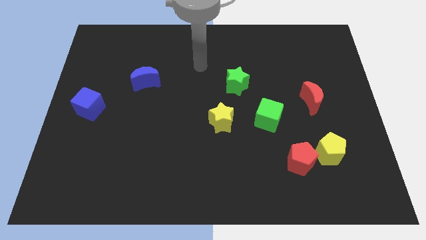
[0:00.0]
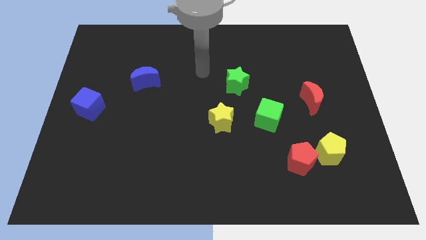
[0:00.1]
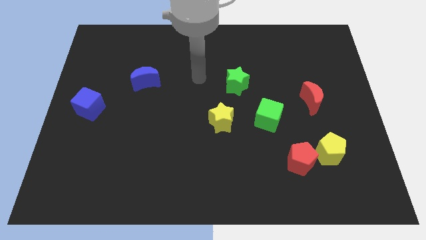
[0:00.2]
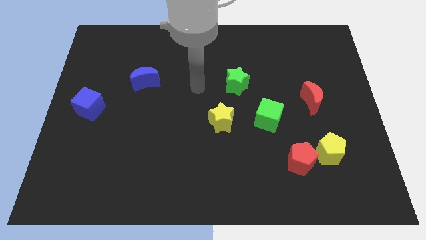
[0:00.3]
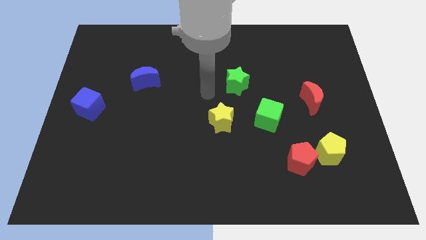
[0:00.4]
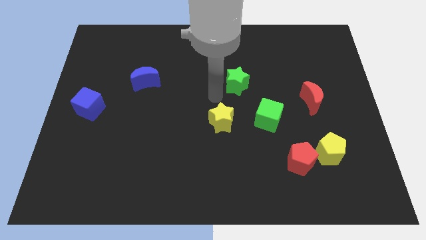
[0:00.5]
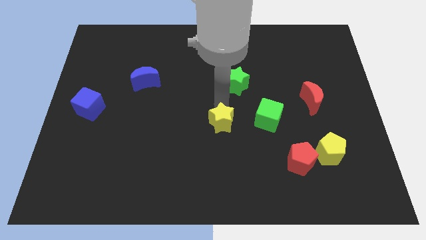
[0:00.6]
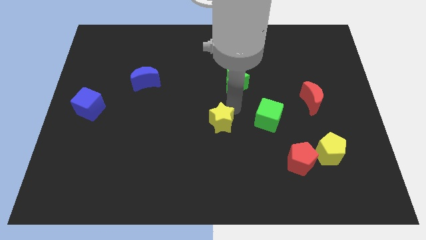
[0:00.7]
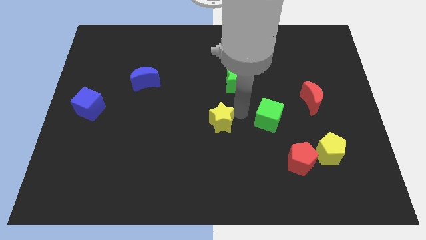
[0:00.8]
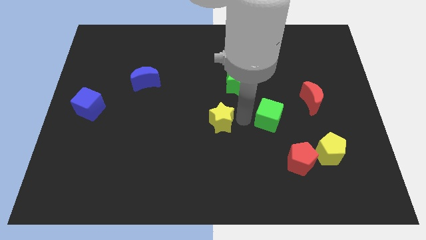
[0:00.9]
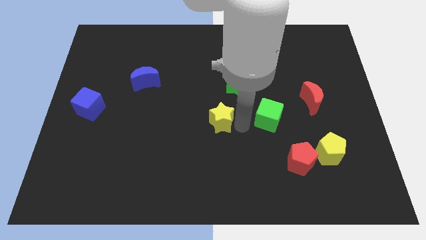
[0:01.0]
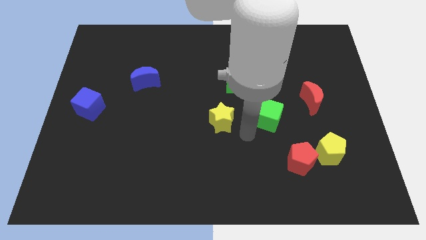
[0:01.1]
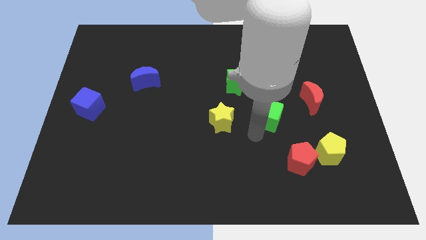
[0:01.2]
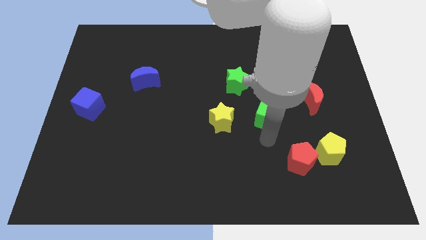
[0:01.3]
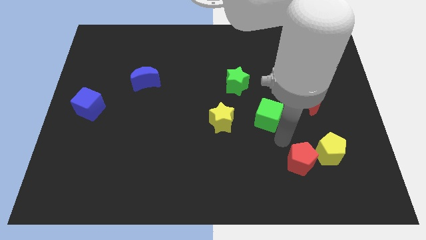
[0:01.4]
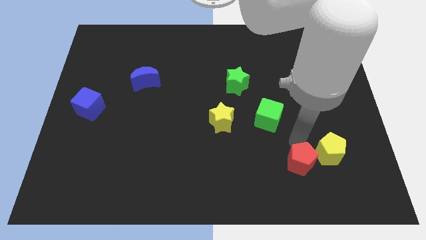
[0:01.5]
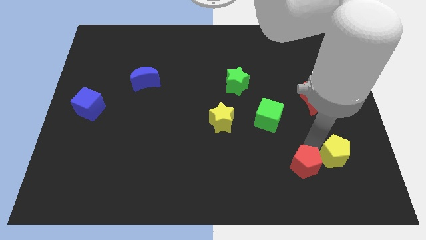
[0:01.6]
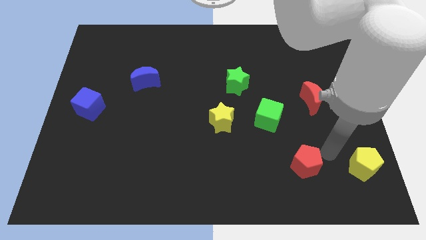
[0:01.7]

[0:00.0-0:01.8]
separate the red pentagon from the yellow pentagon

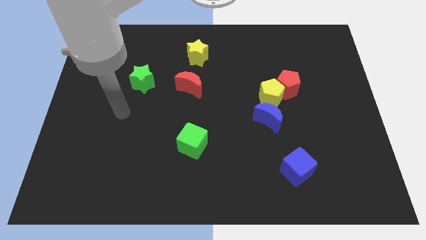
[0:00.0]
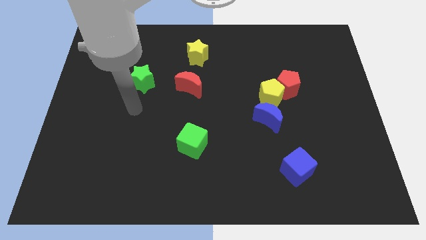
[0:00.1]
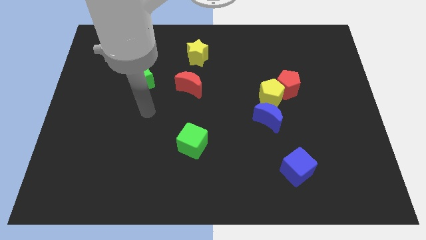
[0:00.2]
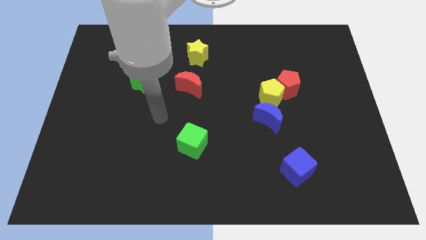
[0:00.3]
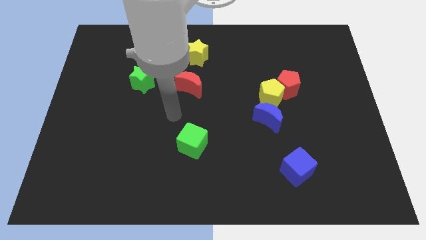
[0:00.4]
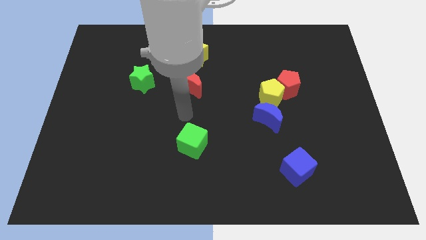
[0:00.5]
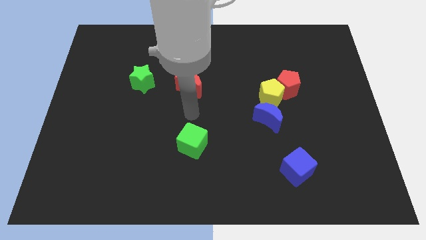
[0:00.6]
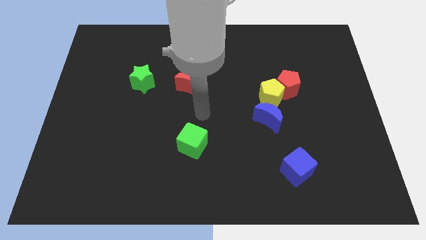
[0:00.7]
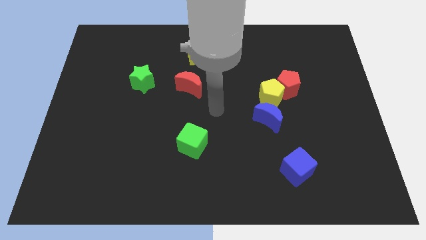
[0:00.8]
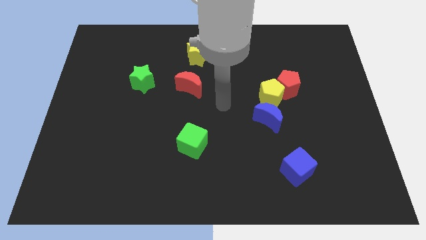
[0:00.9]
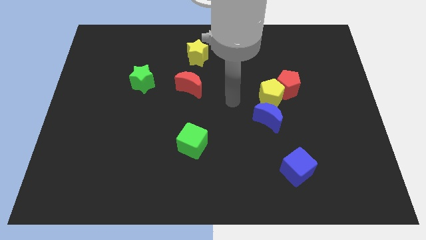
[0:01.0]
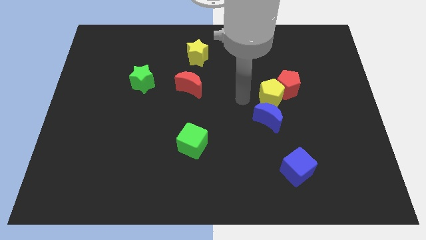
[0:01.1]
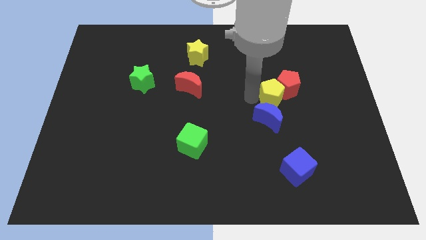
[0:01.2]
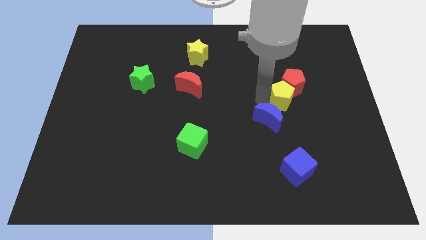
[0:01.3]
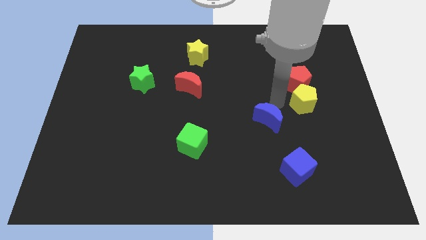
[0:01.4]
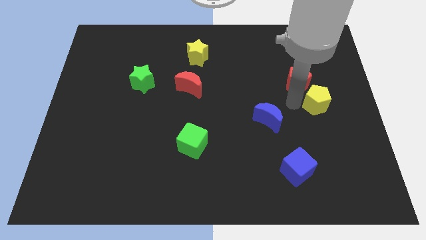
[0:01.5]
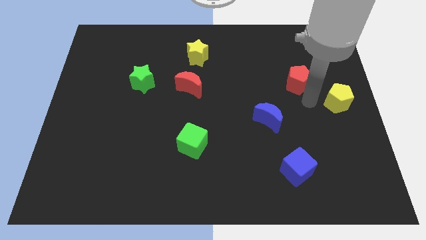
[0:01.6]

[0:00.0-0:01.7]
move the red pentagon away from the yellow pentagon

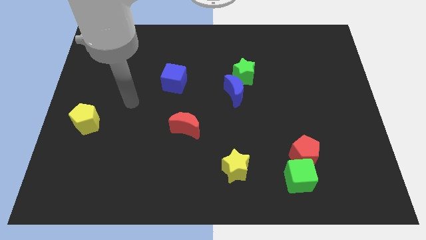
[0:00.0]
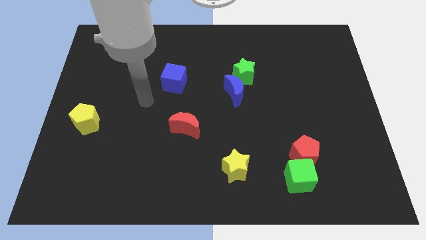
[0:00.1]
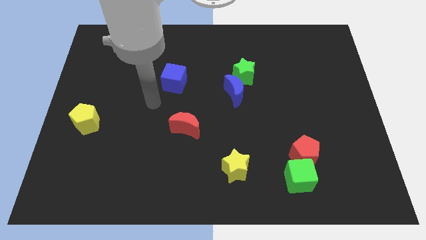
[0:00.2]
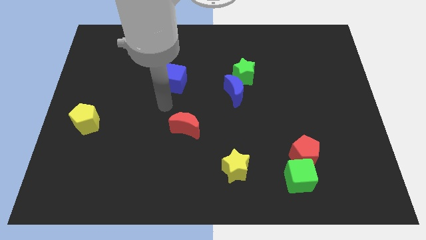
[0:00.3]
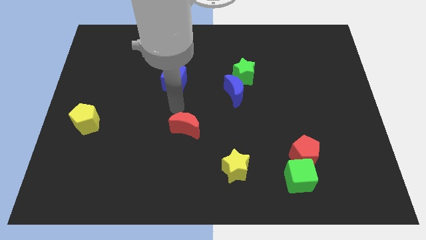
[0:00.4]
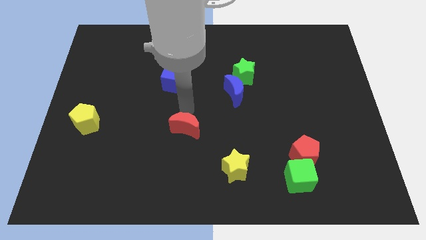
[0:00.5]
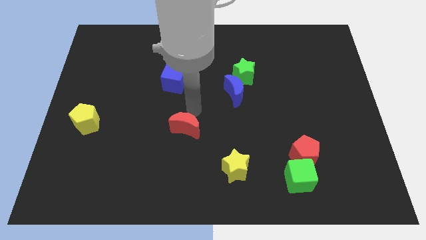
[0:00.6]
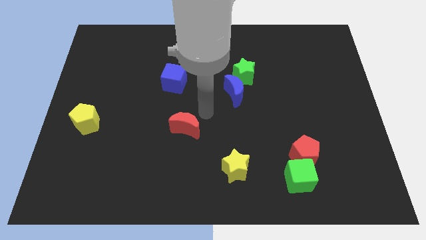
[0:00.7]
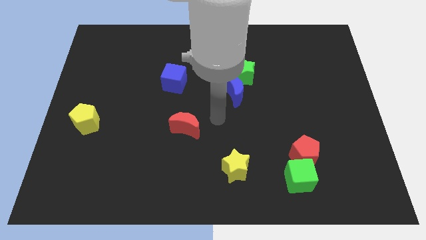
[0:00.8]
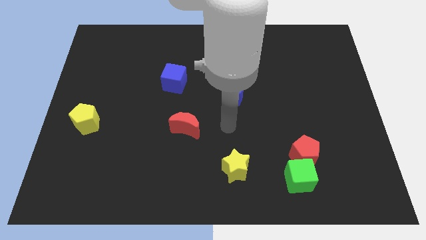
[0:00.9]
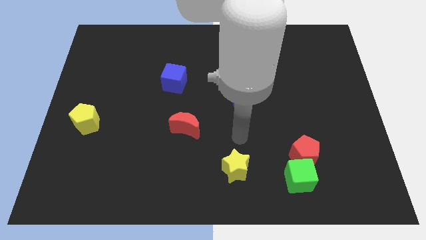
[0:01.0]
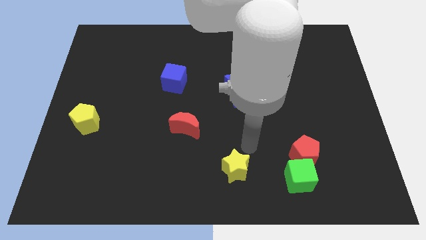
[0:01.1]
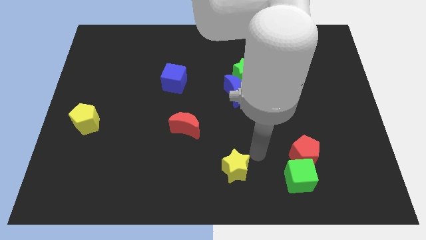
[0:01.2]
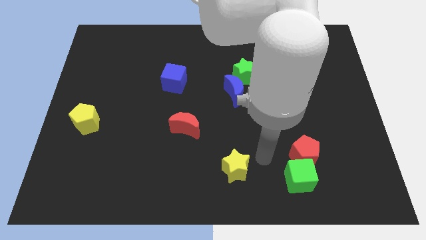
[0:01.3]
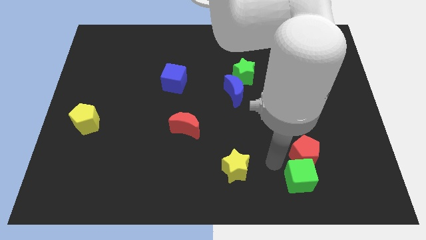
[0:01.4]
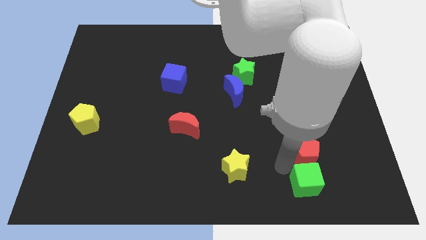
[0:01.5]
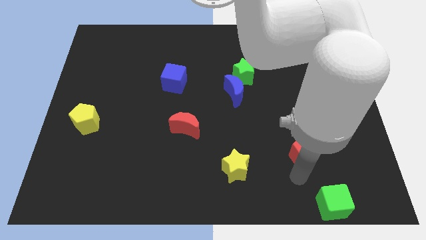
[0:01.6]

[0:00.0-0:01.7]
pull the red pentagon apart from the green cube

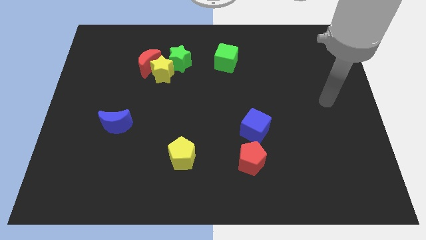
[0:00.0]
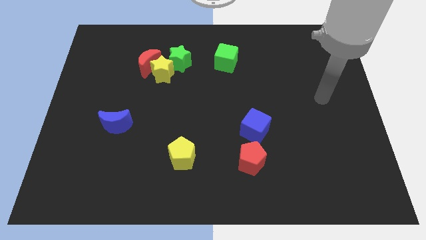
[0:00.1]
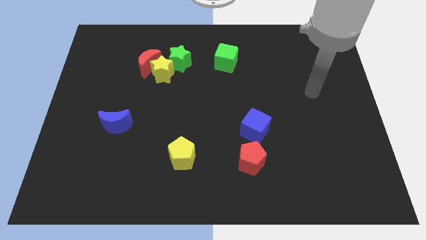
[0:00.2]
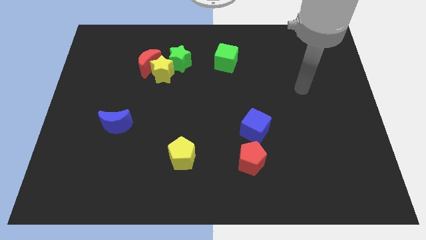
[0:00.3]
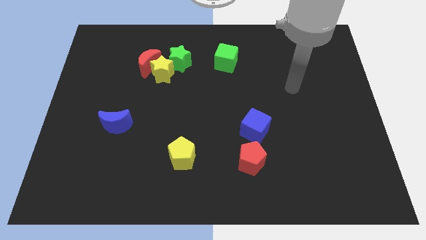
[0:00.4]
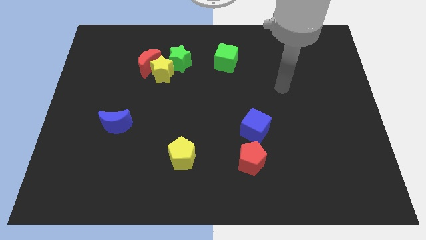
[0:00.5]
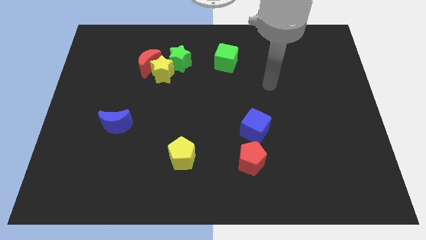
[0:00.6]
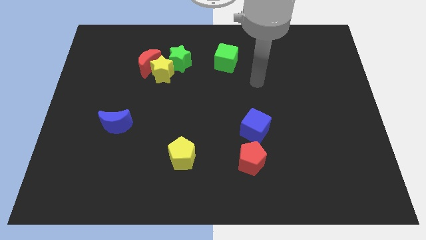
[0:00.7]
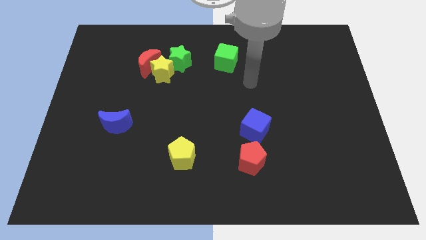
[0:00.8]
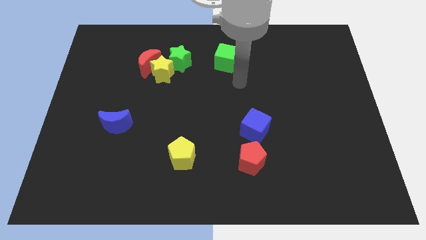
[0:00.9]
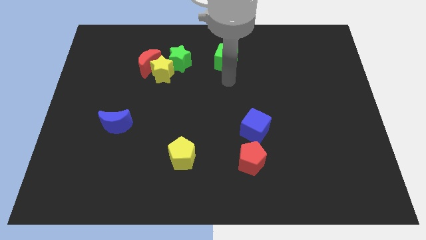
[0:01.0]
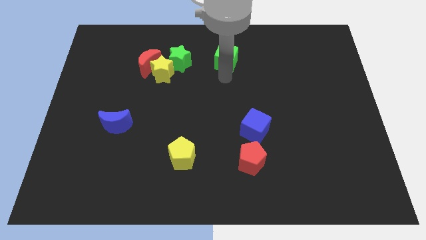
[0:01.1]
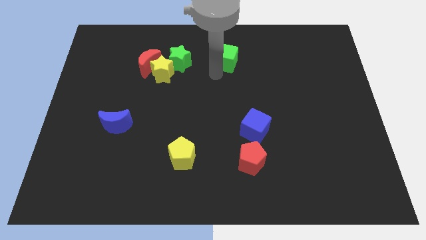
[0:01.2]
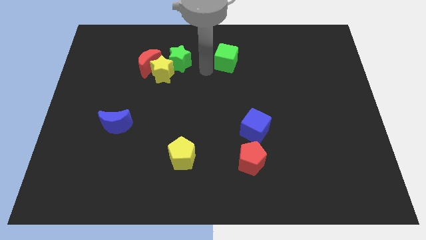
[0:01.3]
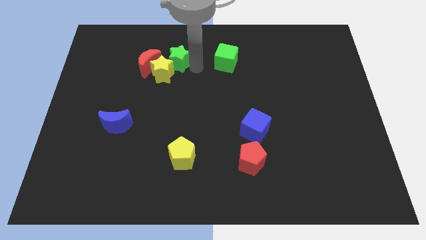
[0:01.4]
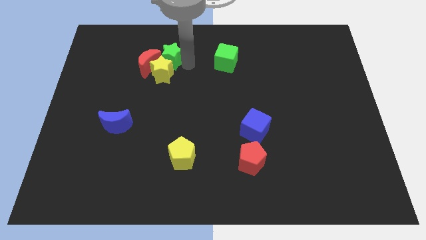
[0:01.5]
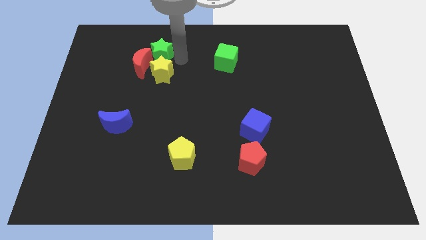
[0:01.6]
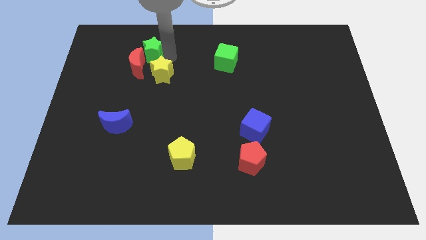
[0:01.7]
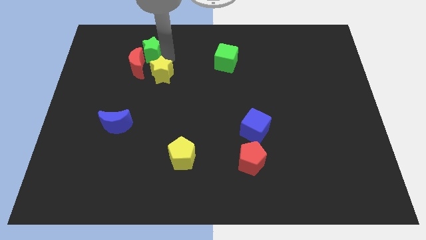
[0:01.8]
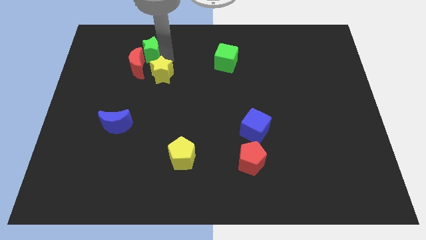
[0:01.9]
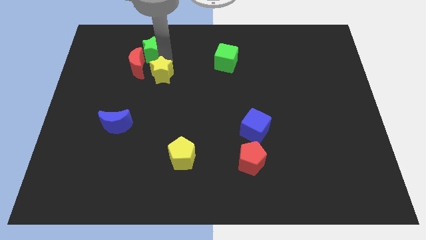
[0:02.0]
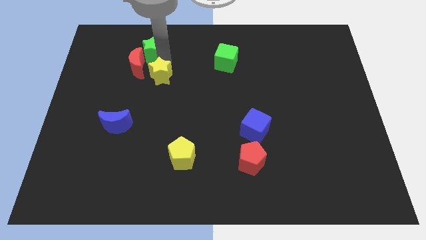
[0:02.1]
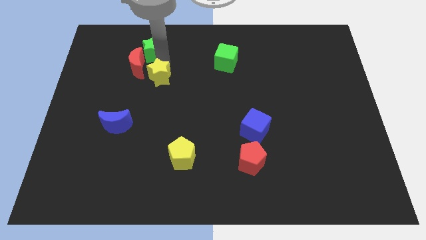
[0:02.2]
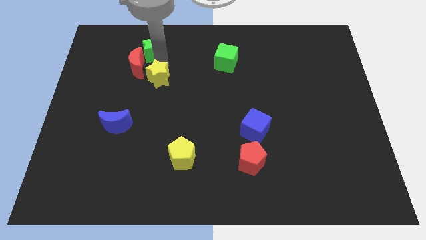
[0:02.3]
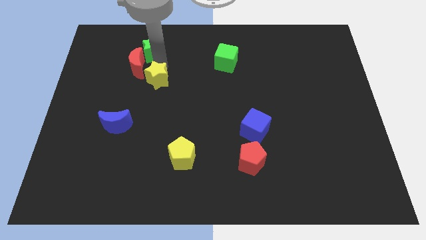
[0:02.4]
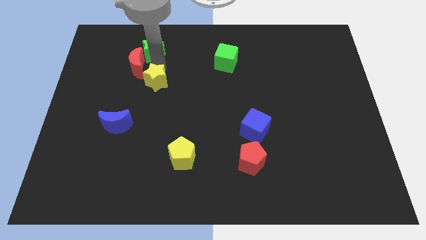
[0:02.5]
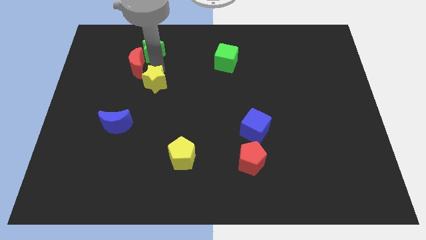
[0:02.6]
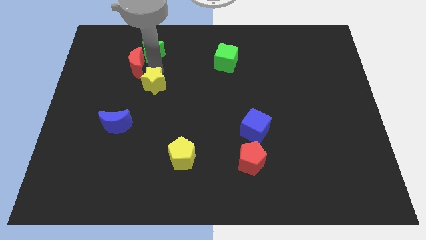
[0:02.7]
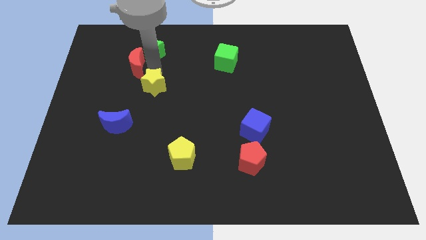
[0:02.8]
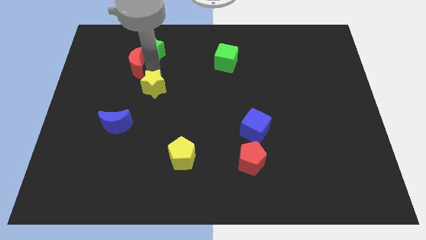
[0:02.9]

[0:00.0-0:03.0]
move the yellow star away from the red moon and green star

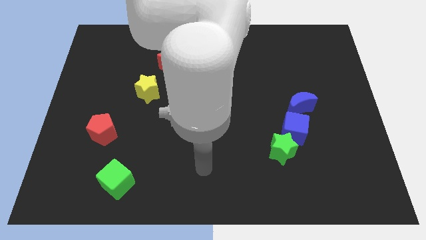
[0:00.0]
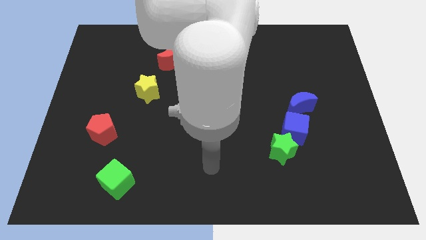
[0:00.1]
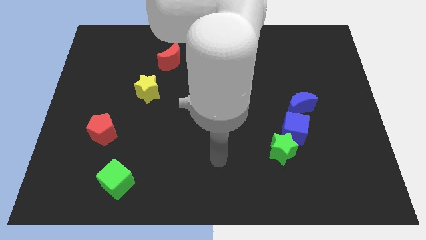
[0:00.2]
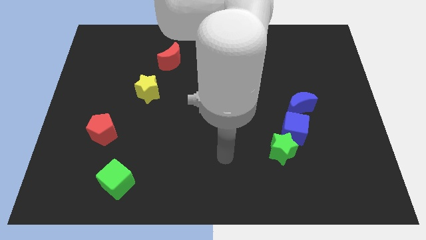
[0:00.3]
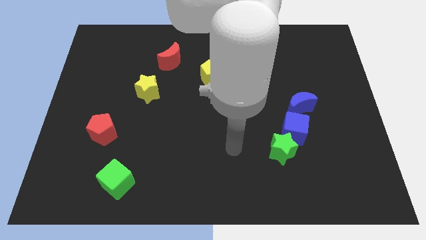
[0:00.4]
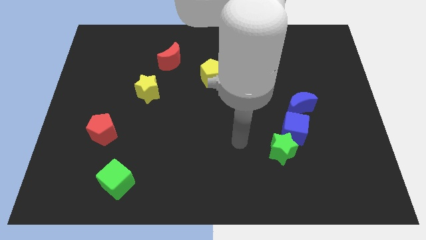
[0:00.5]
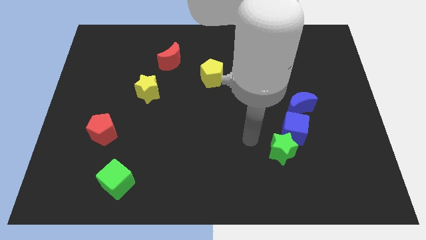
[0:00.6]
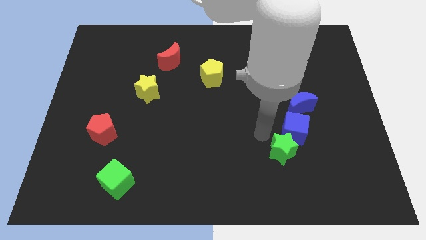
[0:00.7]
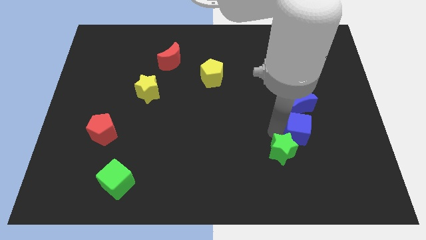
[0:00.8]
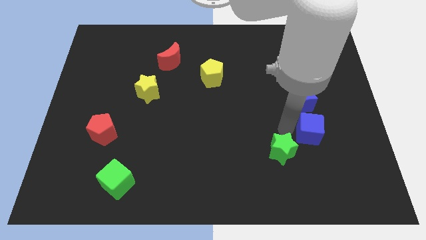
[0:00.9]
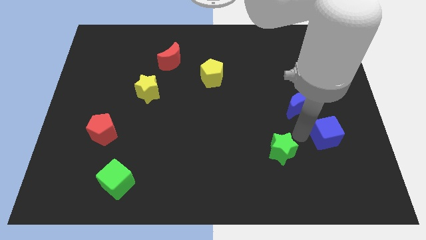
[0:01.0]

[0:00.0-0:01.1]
move the green star away from the blue cube
